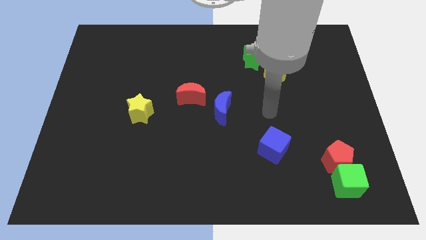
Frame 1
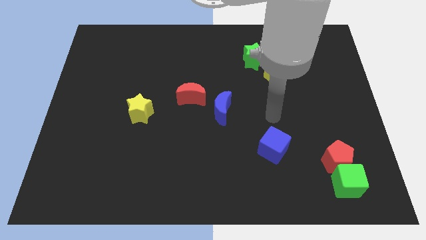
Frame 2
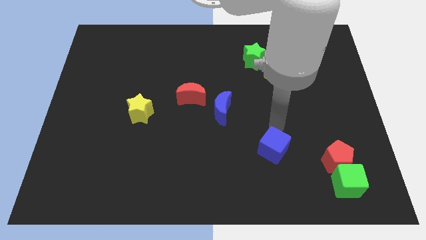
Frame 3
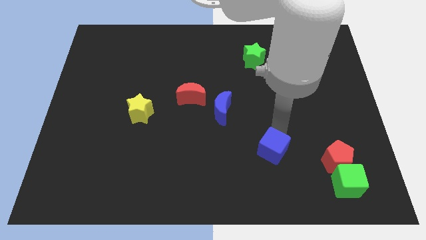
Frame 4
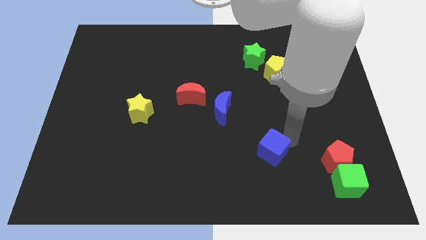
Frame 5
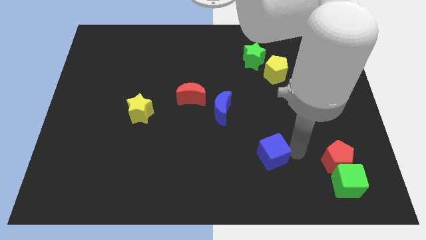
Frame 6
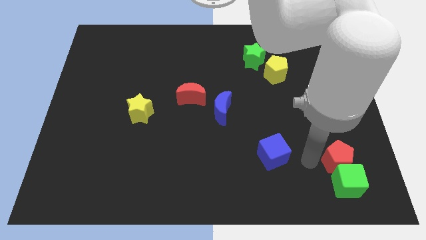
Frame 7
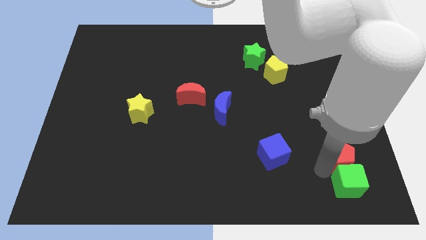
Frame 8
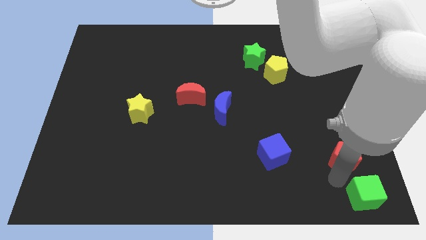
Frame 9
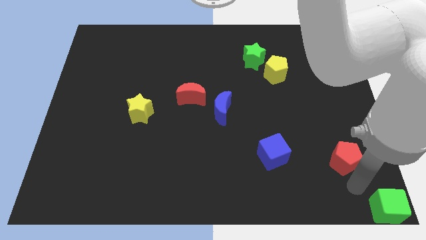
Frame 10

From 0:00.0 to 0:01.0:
pull the red pentagon apart from the green cube

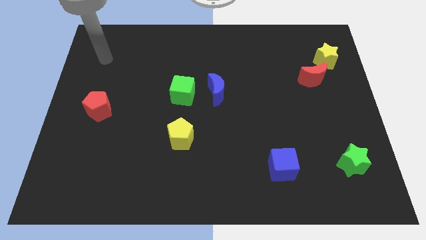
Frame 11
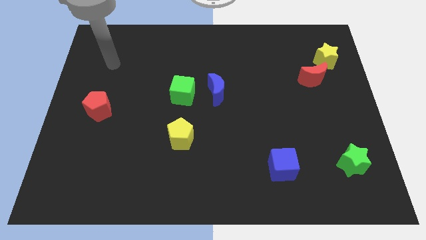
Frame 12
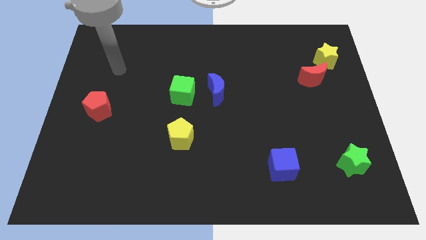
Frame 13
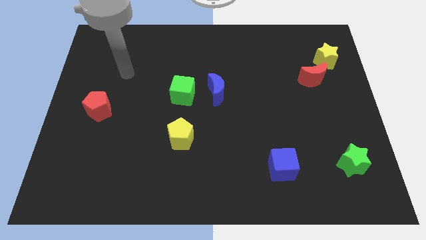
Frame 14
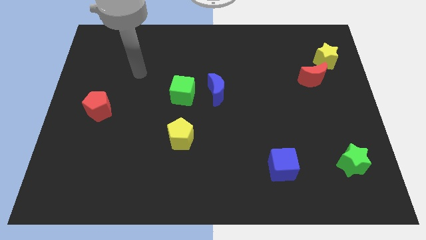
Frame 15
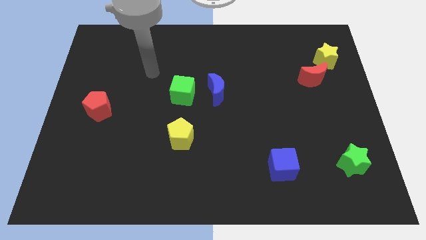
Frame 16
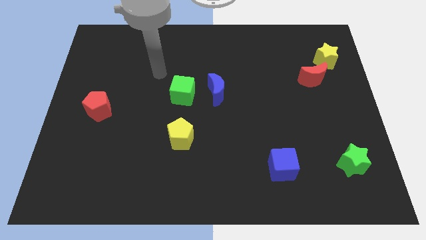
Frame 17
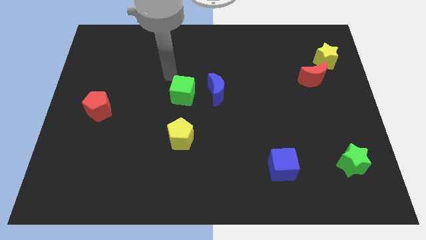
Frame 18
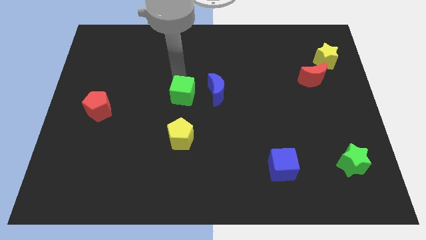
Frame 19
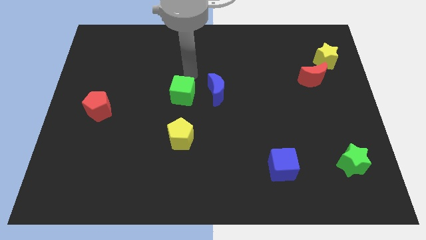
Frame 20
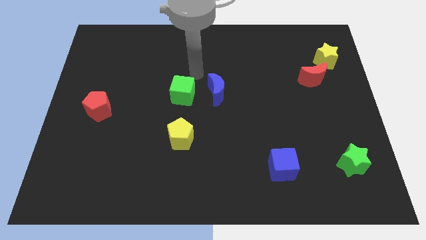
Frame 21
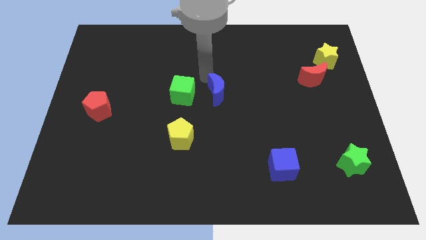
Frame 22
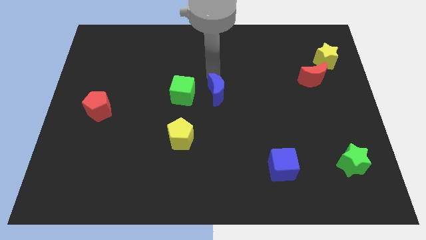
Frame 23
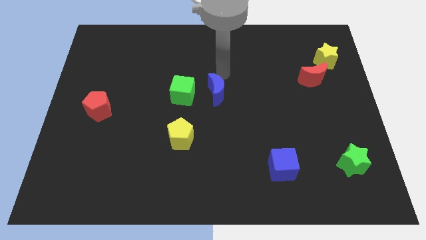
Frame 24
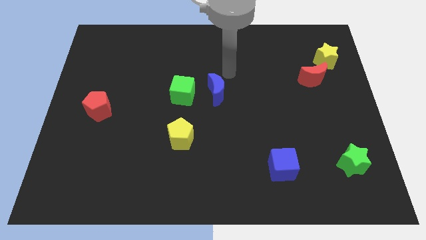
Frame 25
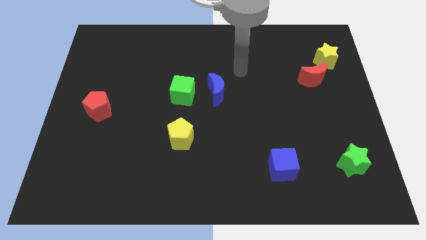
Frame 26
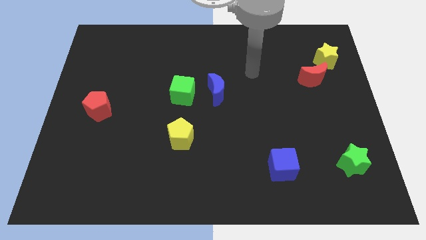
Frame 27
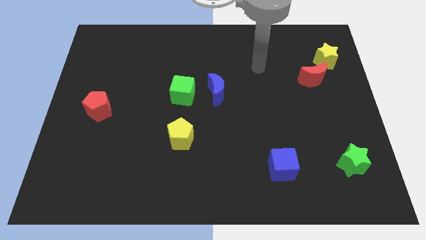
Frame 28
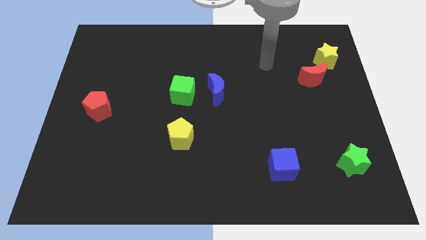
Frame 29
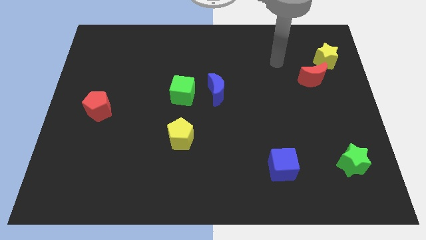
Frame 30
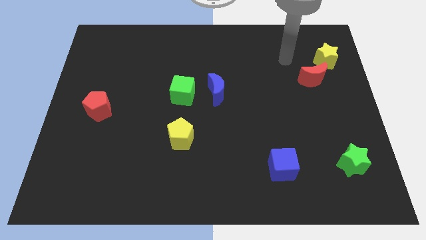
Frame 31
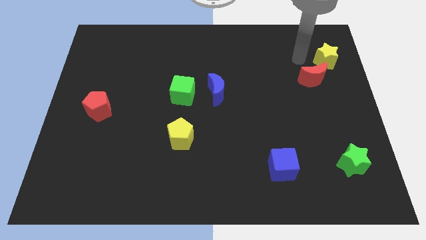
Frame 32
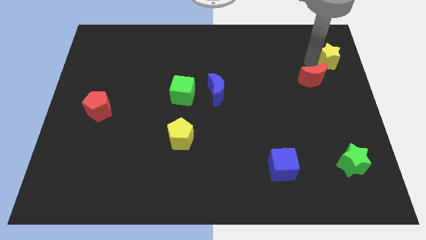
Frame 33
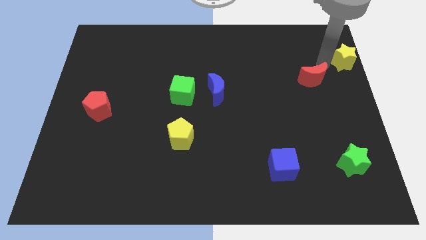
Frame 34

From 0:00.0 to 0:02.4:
separate the red moon from the yellow star

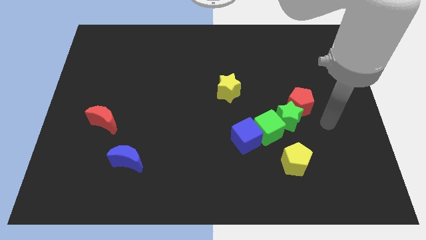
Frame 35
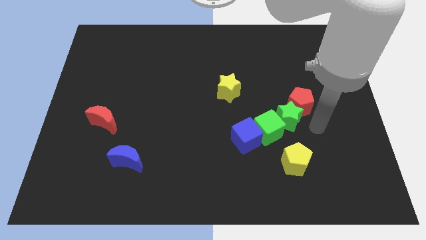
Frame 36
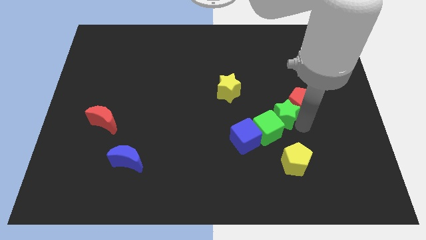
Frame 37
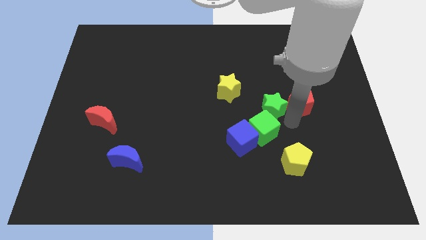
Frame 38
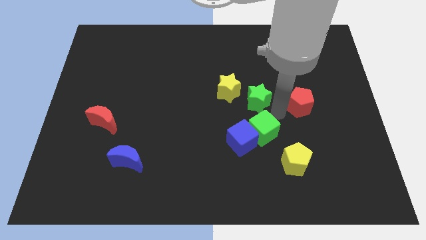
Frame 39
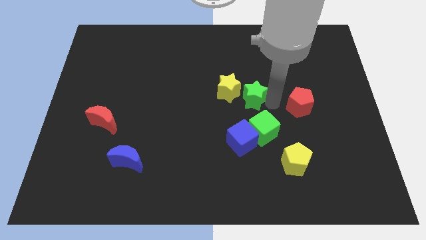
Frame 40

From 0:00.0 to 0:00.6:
separate the red pentagon from the green star

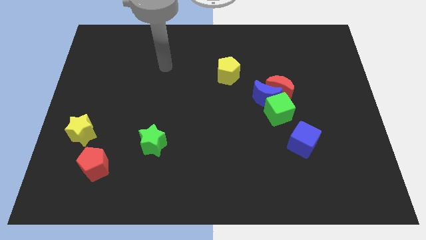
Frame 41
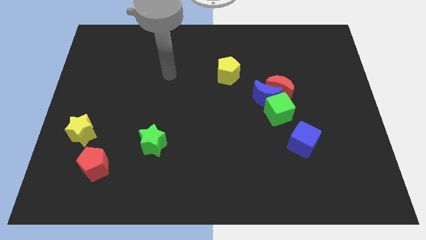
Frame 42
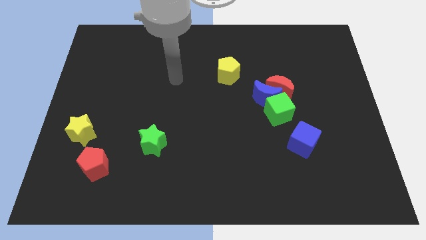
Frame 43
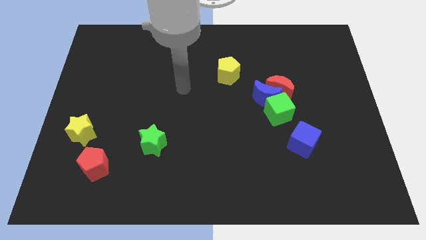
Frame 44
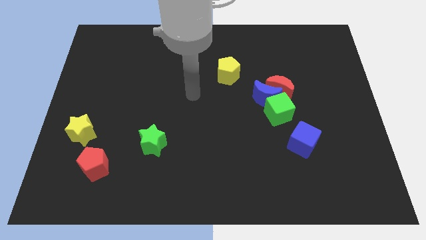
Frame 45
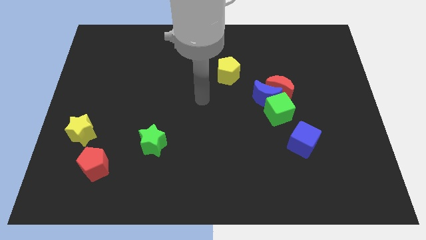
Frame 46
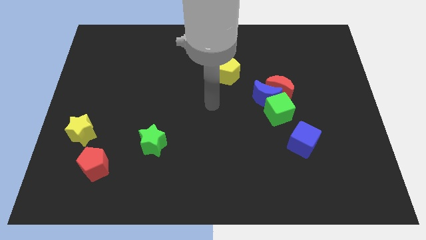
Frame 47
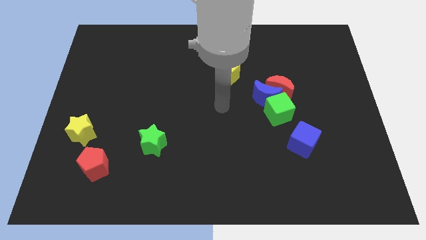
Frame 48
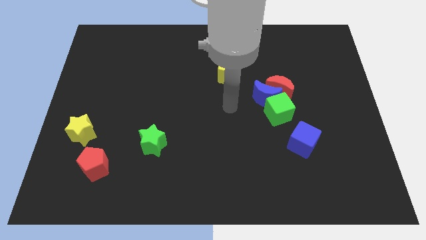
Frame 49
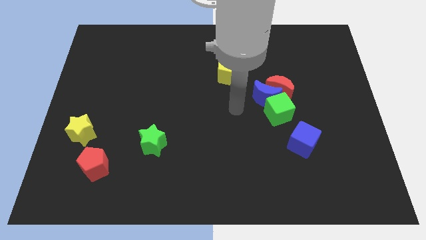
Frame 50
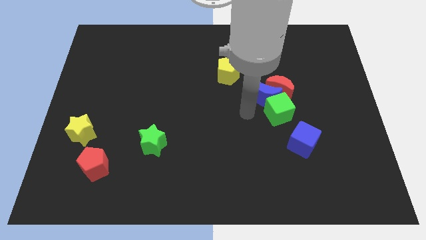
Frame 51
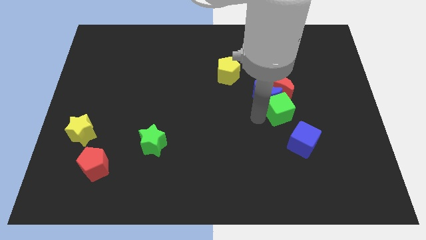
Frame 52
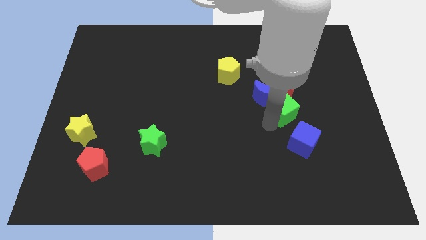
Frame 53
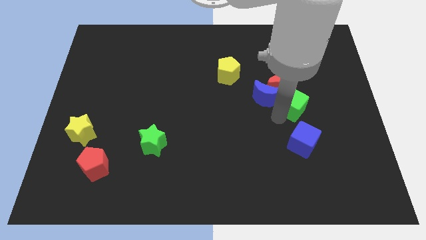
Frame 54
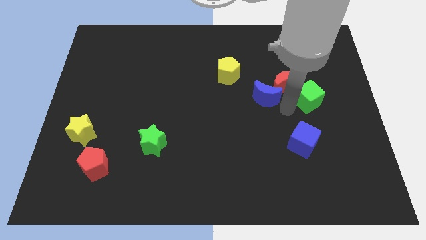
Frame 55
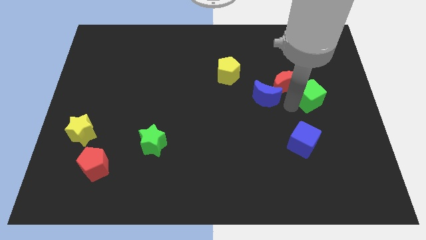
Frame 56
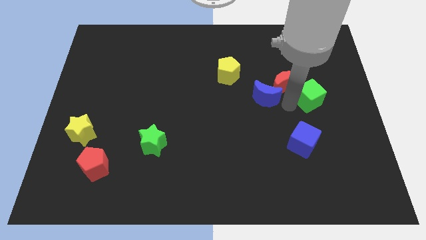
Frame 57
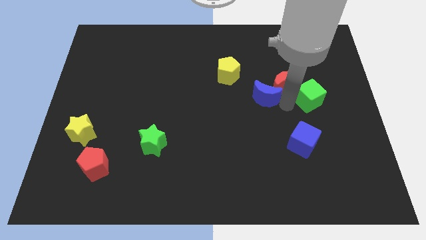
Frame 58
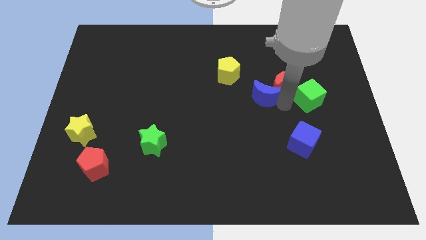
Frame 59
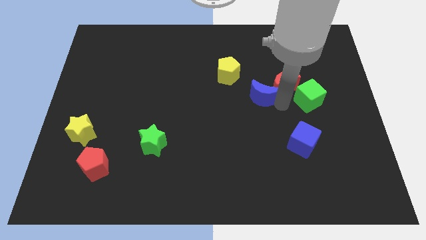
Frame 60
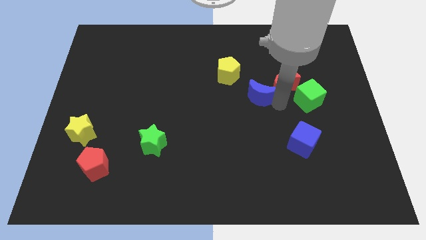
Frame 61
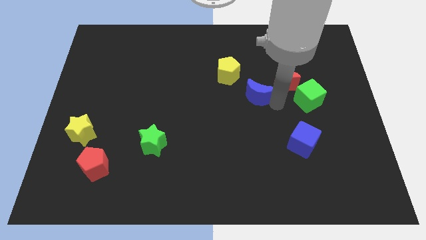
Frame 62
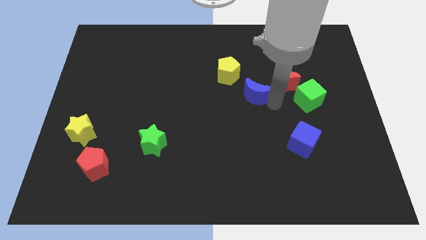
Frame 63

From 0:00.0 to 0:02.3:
pull the blue moon apart from the red moon and green cube

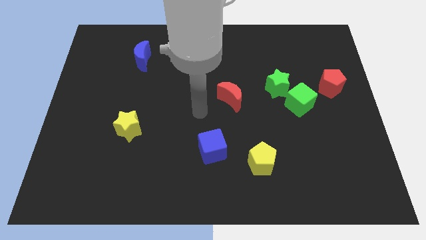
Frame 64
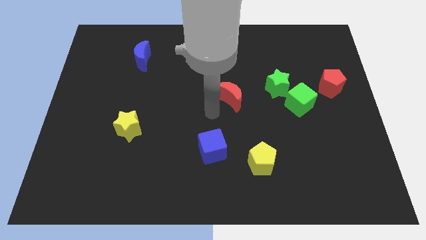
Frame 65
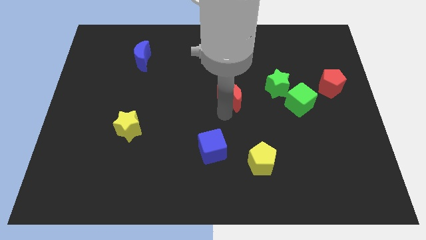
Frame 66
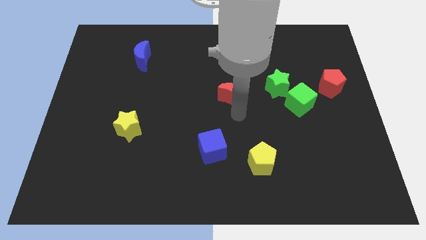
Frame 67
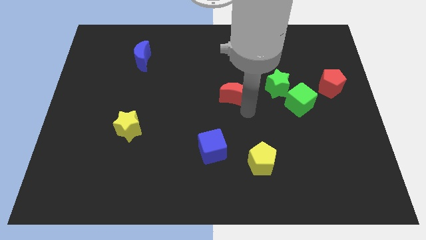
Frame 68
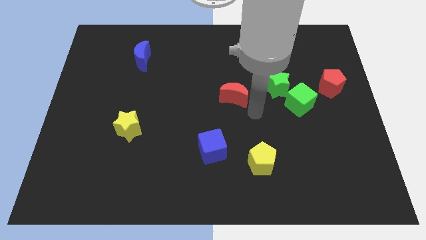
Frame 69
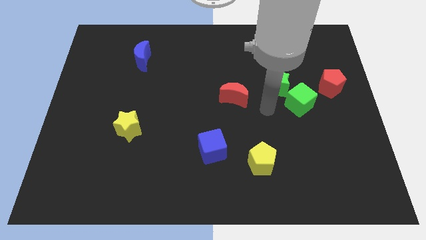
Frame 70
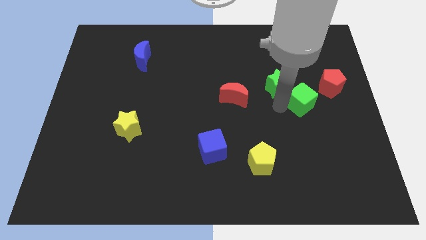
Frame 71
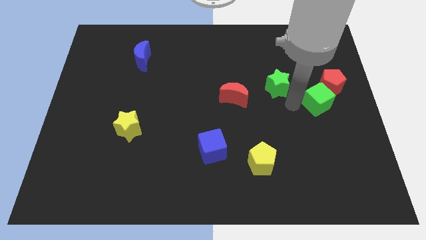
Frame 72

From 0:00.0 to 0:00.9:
separate the green star from the green cube

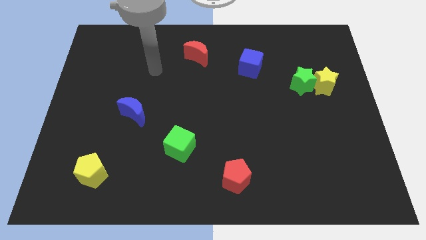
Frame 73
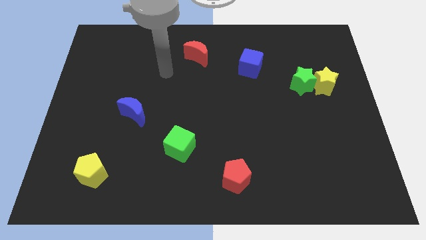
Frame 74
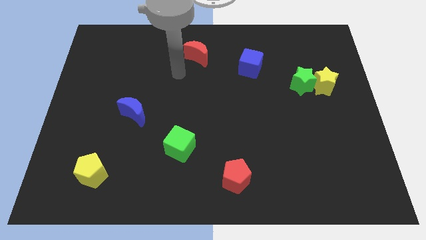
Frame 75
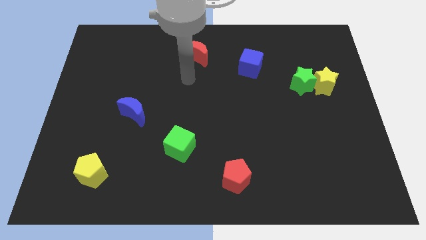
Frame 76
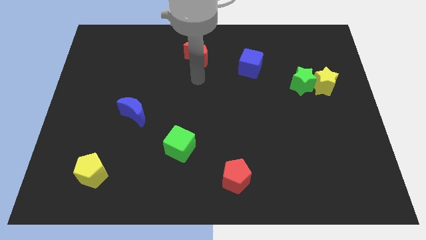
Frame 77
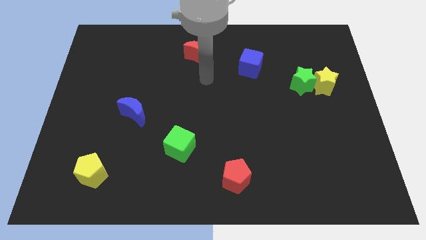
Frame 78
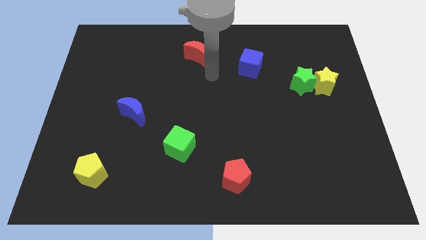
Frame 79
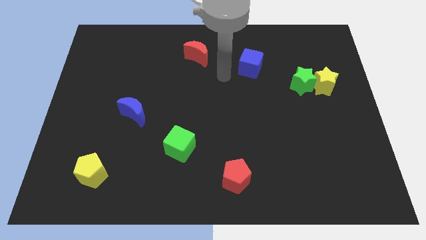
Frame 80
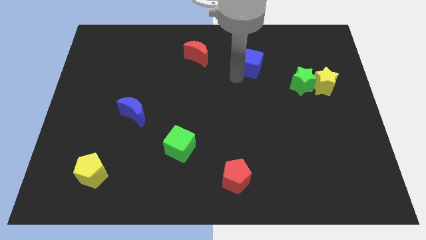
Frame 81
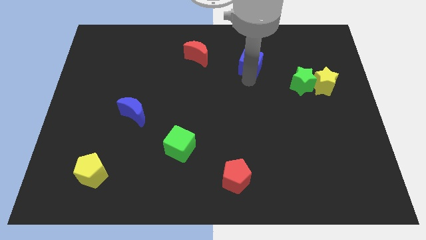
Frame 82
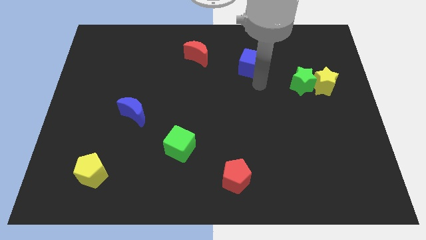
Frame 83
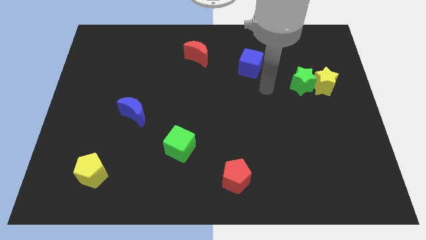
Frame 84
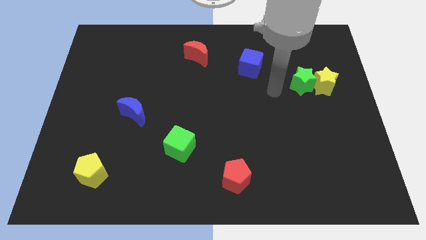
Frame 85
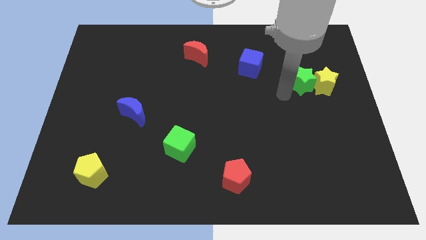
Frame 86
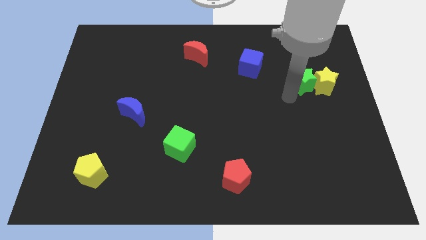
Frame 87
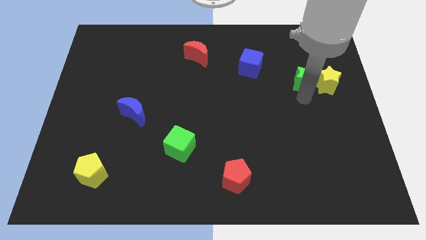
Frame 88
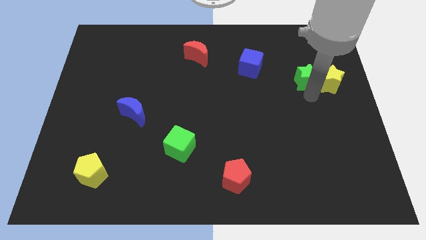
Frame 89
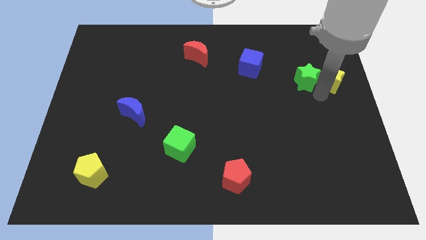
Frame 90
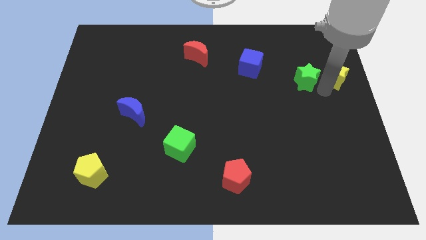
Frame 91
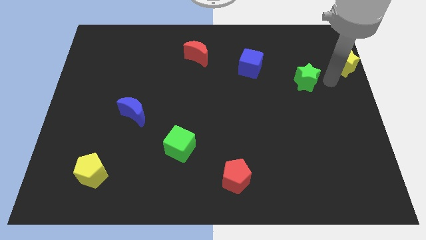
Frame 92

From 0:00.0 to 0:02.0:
pull the green star apart from the yellow star

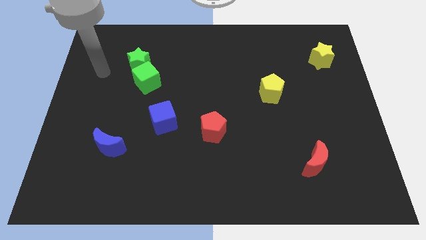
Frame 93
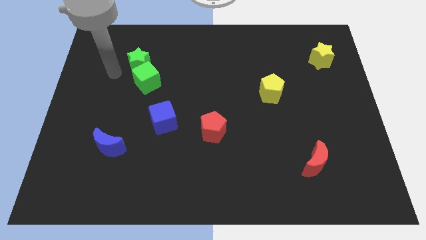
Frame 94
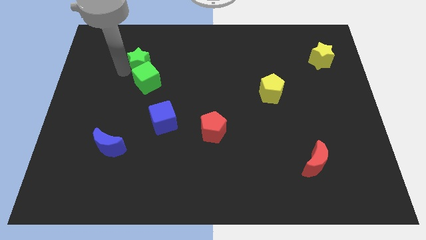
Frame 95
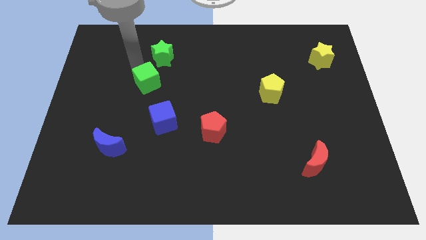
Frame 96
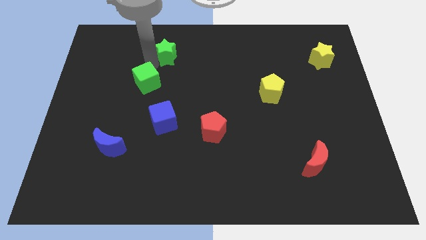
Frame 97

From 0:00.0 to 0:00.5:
pull the green cube apart from the green star
